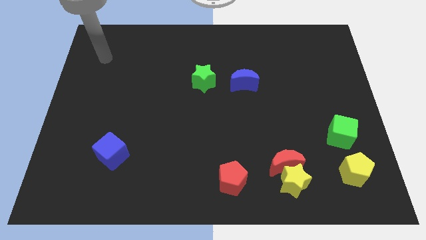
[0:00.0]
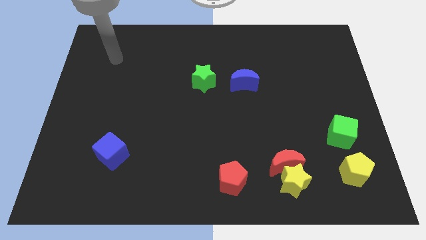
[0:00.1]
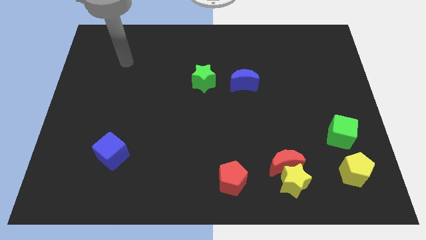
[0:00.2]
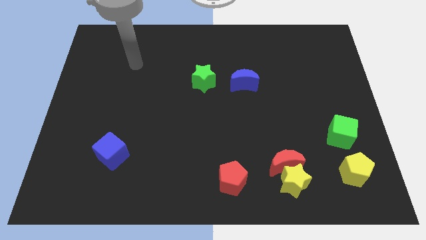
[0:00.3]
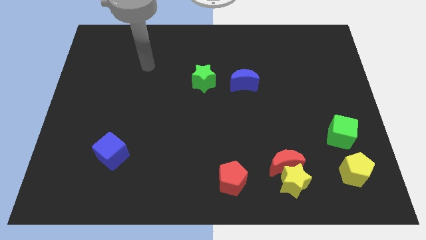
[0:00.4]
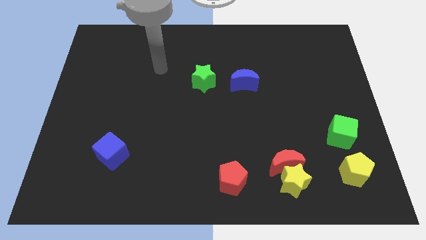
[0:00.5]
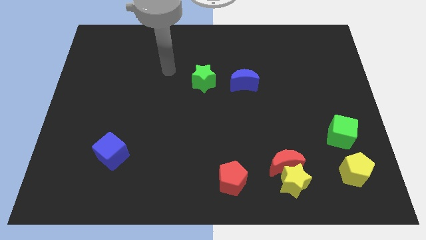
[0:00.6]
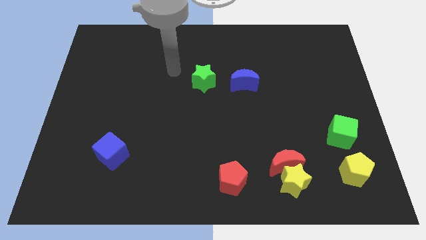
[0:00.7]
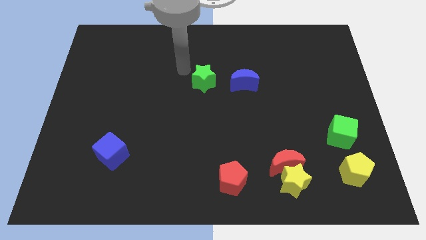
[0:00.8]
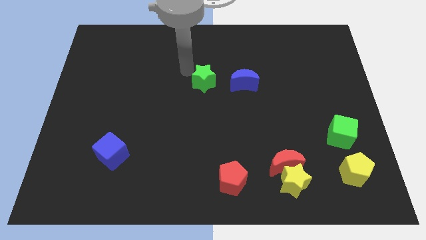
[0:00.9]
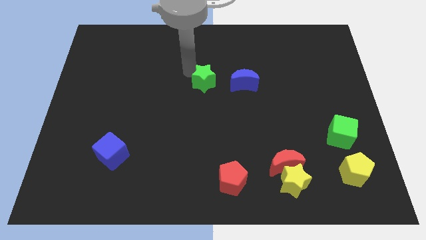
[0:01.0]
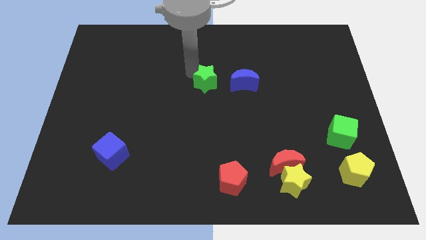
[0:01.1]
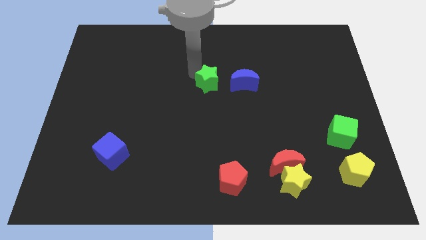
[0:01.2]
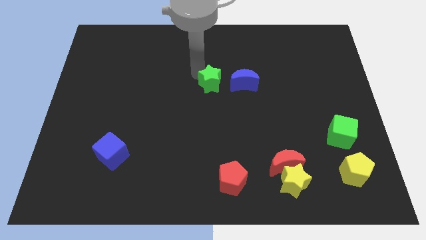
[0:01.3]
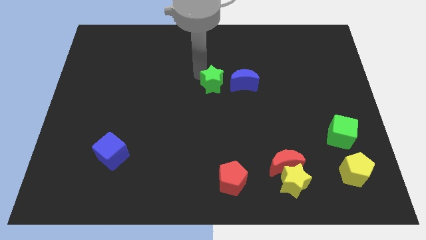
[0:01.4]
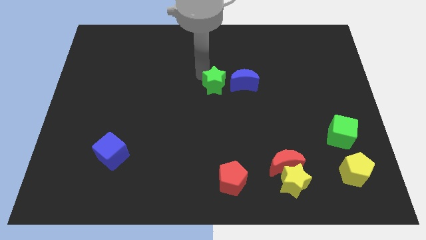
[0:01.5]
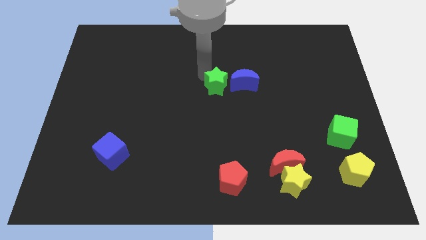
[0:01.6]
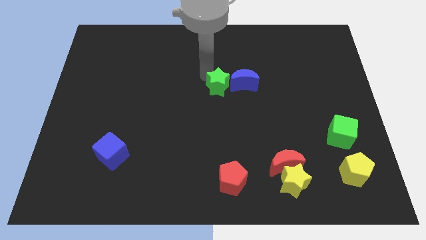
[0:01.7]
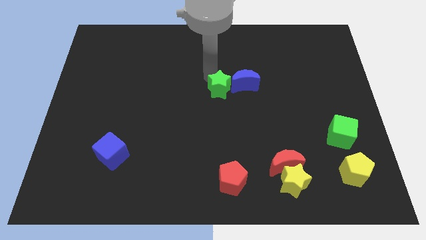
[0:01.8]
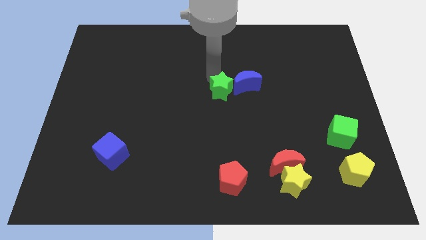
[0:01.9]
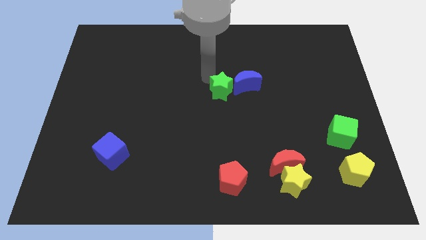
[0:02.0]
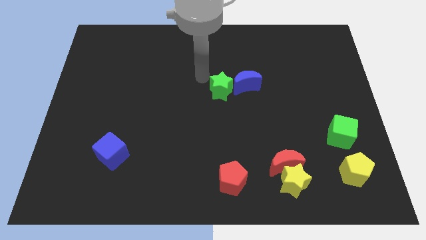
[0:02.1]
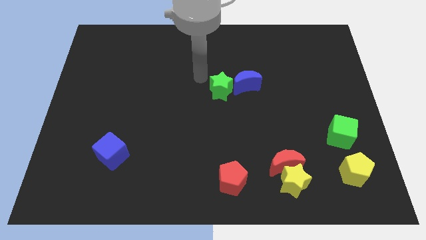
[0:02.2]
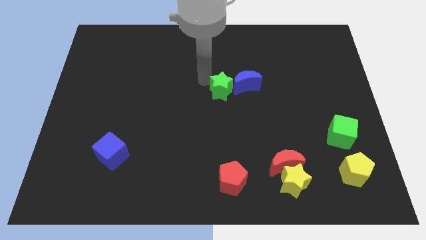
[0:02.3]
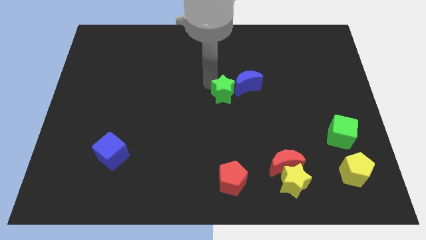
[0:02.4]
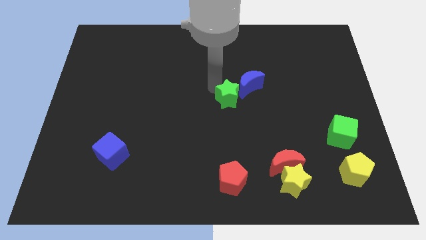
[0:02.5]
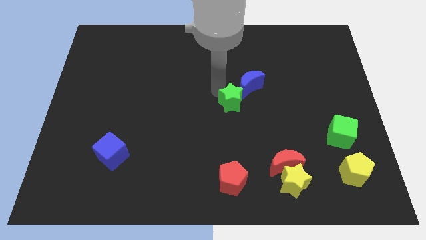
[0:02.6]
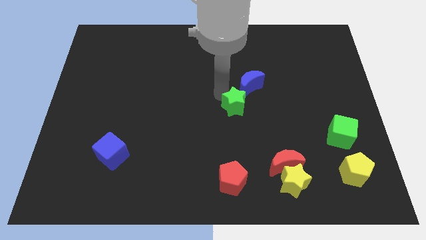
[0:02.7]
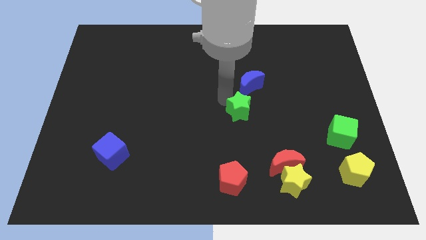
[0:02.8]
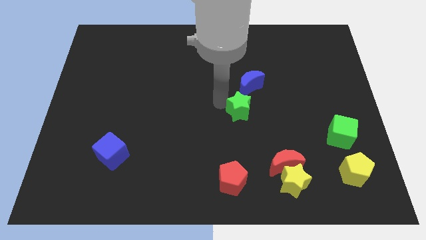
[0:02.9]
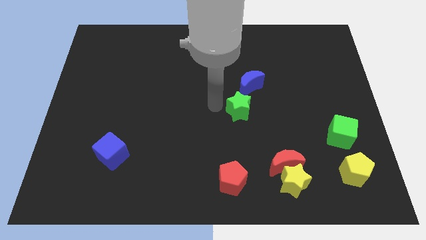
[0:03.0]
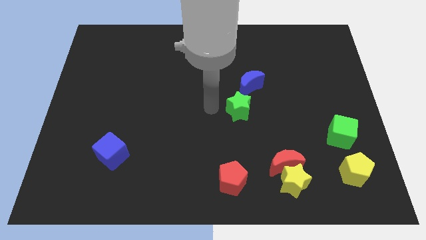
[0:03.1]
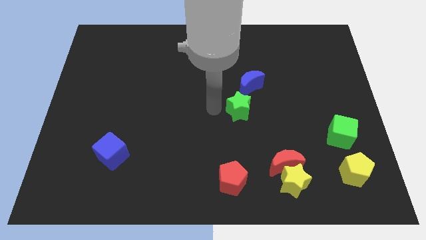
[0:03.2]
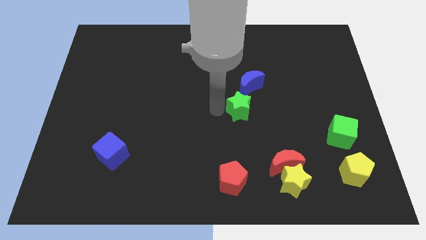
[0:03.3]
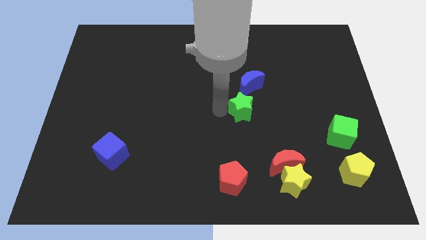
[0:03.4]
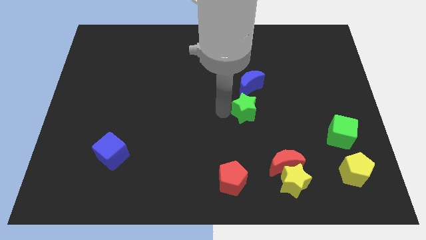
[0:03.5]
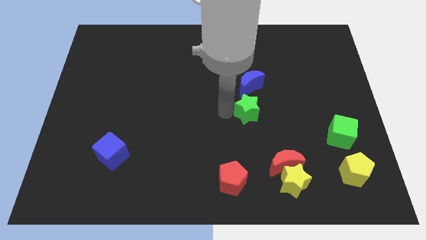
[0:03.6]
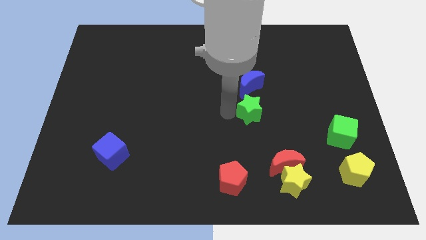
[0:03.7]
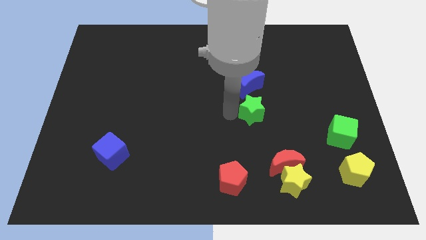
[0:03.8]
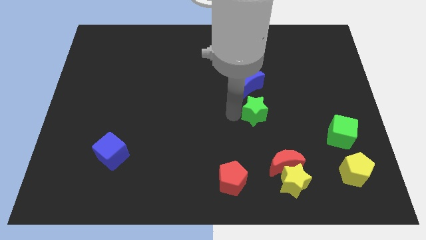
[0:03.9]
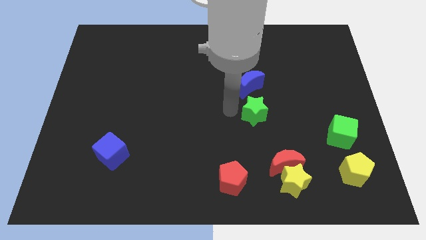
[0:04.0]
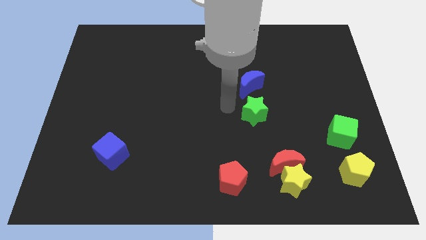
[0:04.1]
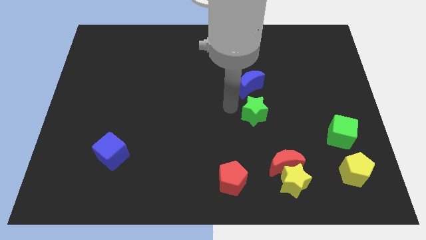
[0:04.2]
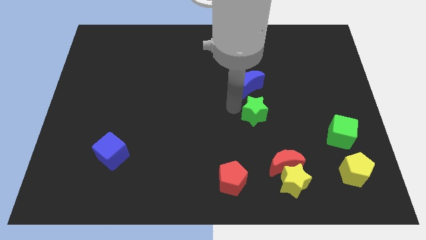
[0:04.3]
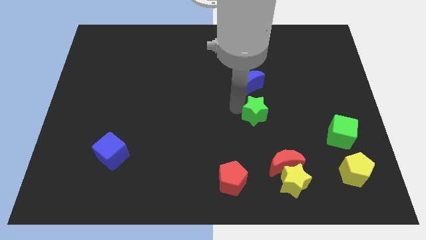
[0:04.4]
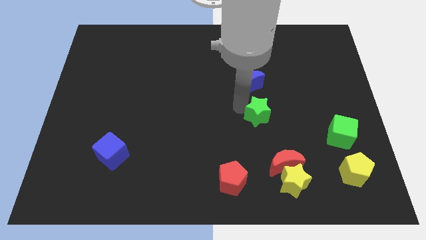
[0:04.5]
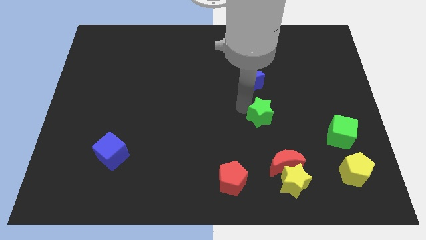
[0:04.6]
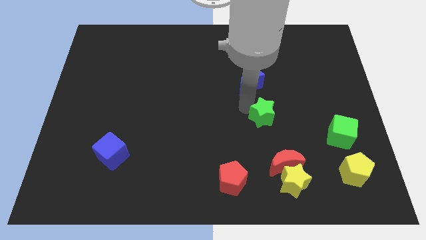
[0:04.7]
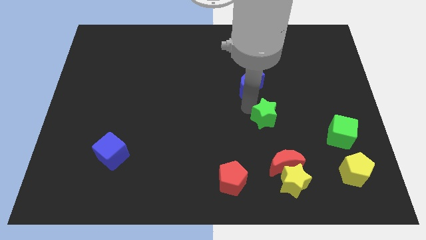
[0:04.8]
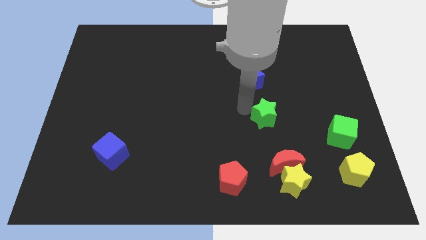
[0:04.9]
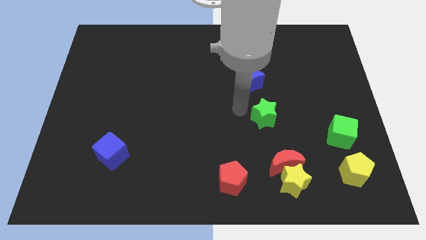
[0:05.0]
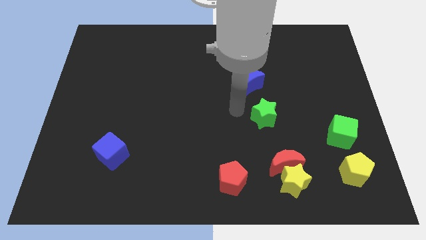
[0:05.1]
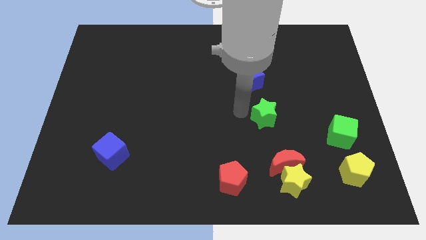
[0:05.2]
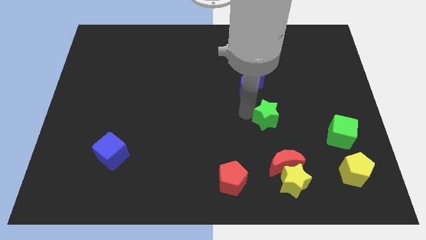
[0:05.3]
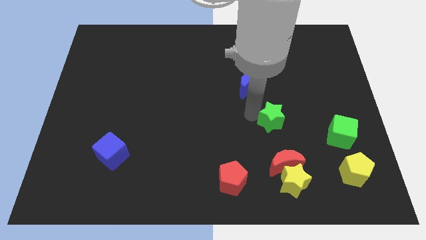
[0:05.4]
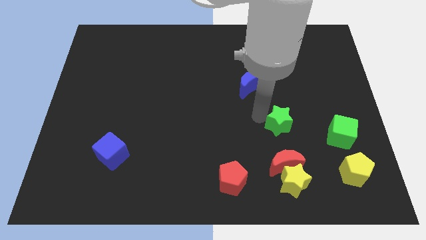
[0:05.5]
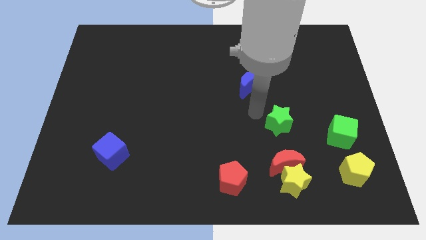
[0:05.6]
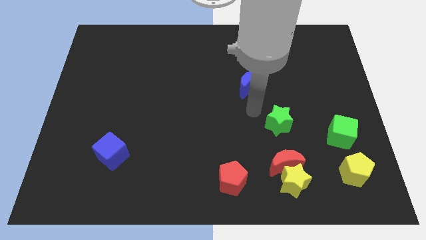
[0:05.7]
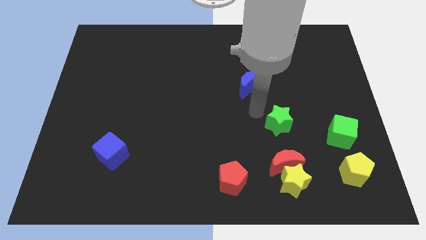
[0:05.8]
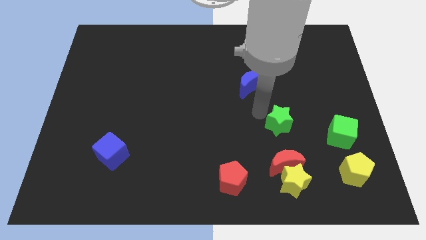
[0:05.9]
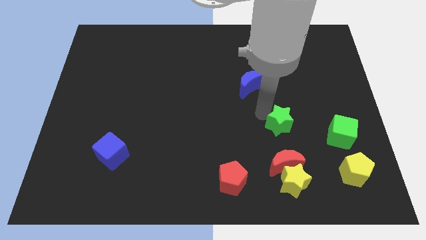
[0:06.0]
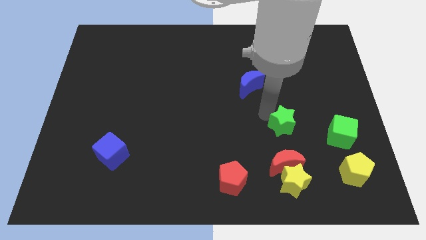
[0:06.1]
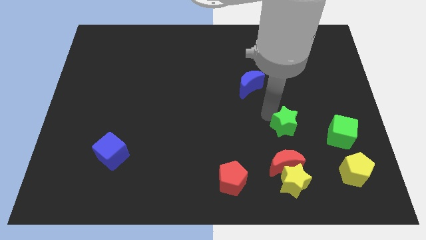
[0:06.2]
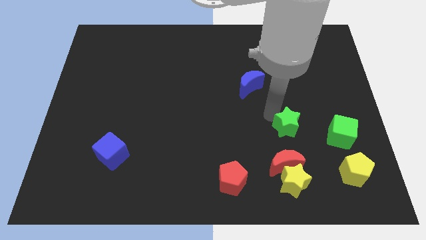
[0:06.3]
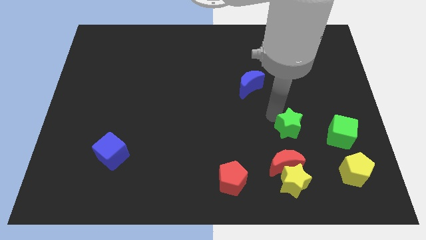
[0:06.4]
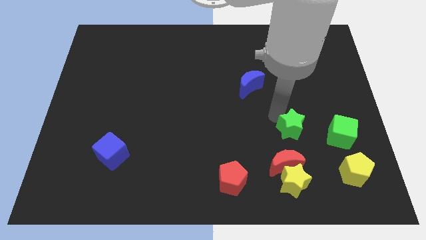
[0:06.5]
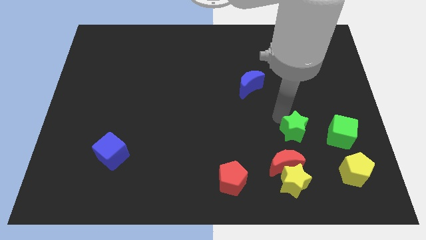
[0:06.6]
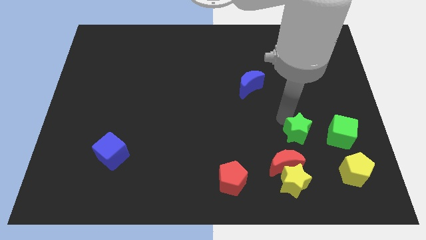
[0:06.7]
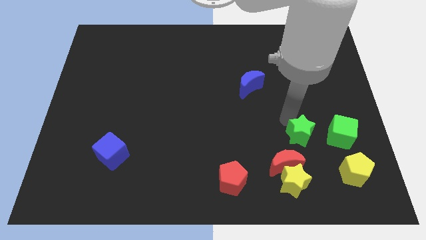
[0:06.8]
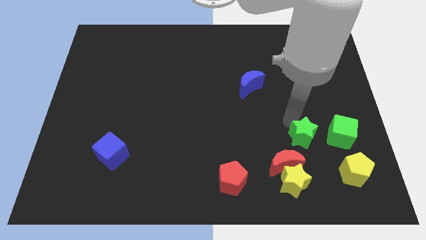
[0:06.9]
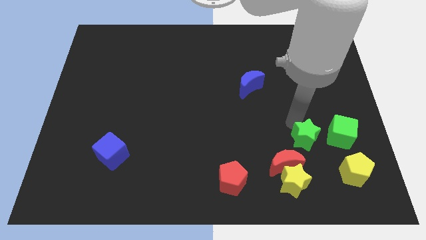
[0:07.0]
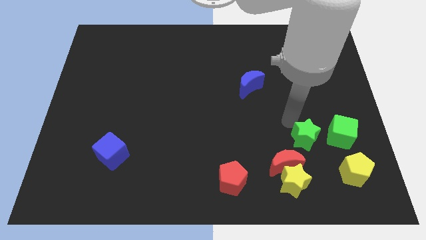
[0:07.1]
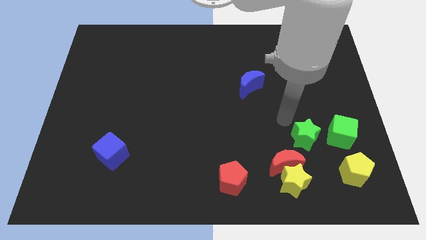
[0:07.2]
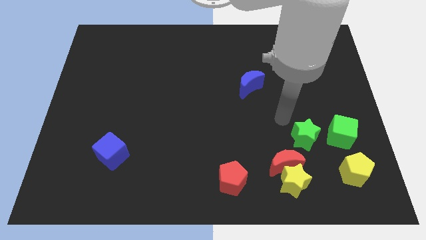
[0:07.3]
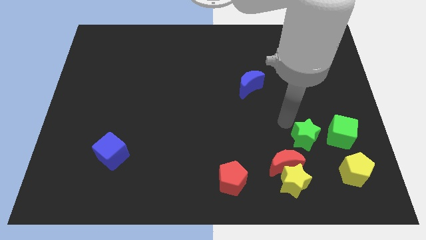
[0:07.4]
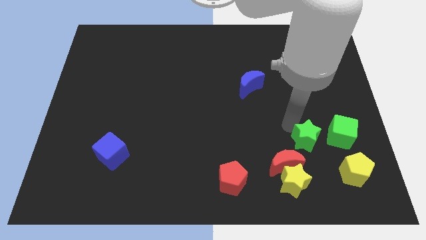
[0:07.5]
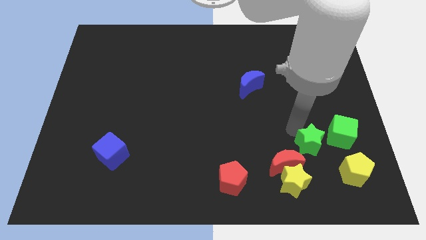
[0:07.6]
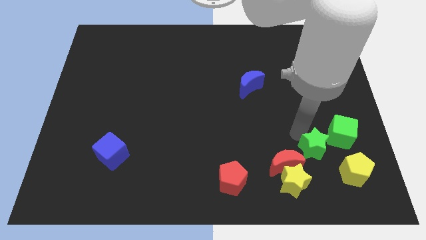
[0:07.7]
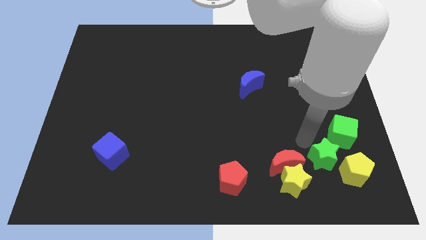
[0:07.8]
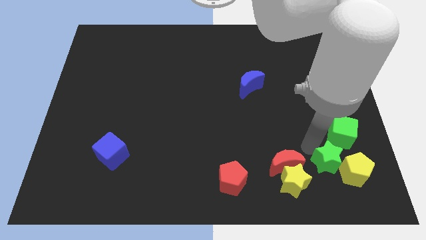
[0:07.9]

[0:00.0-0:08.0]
move the green star to the yellow pentagon
